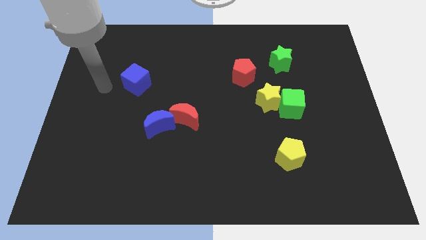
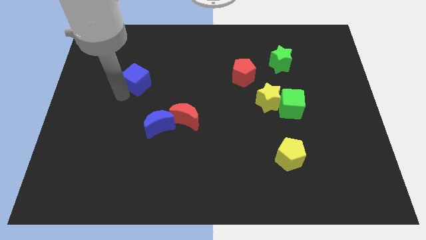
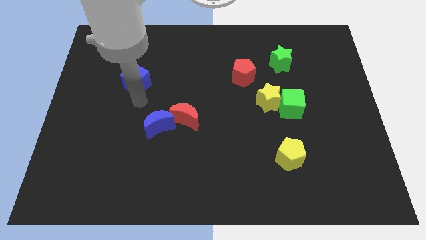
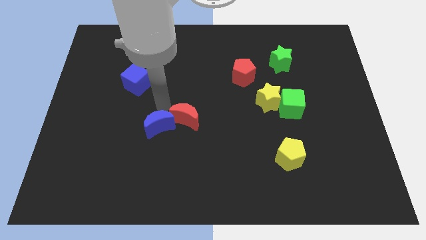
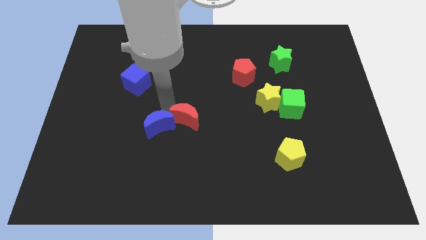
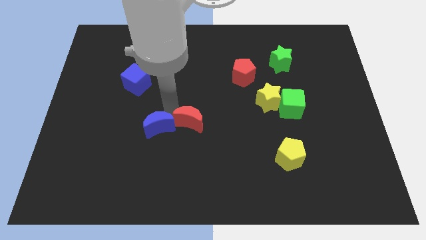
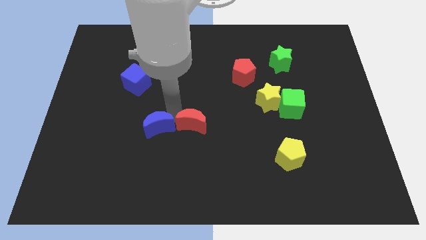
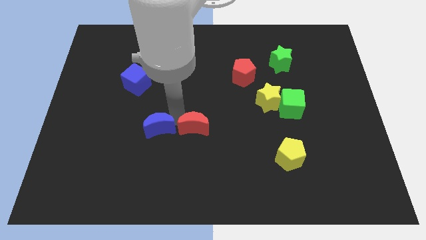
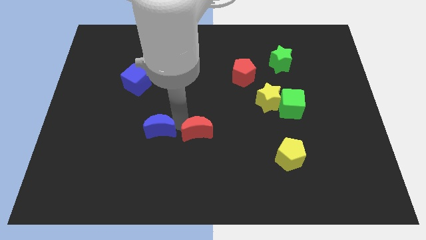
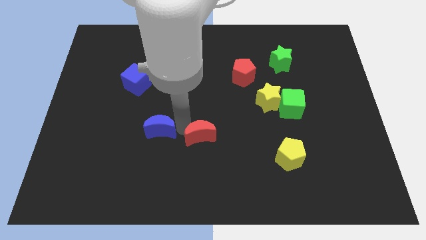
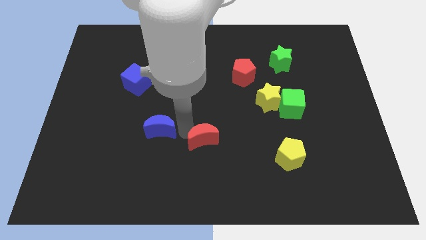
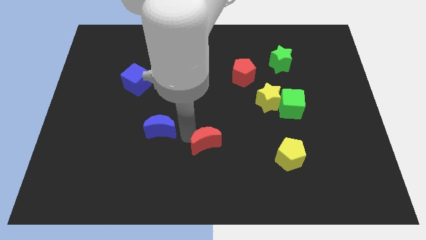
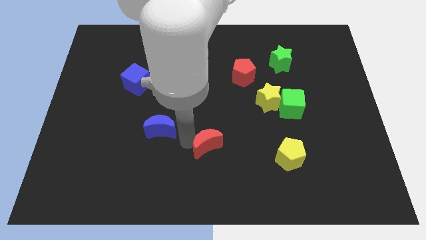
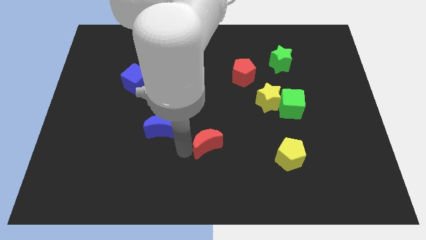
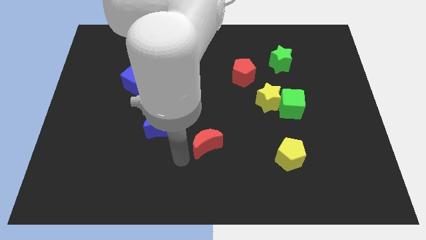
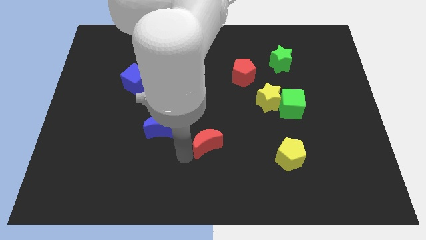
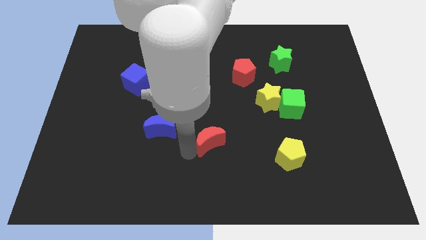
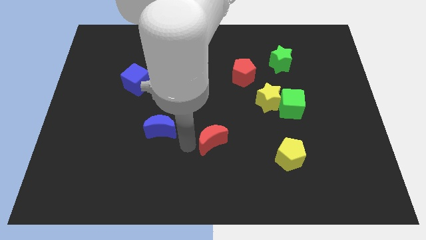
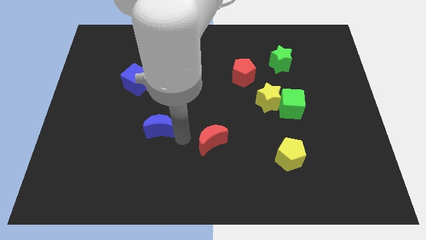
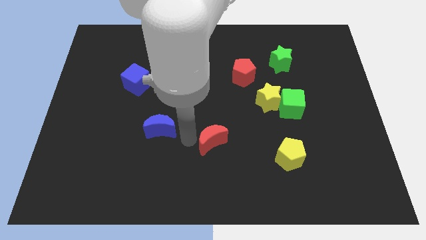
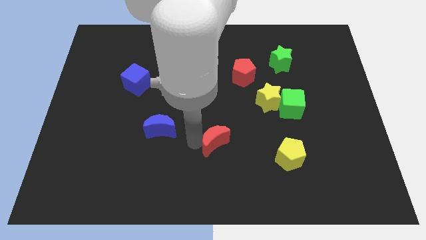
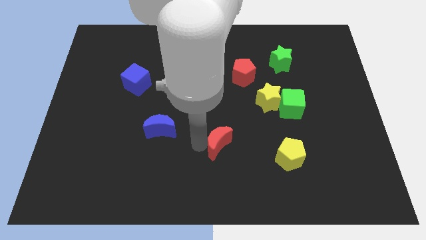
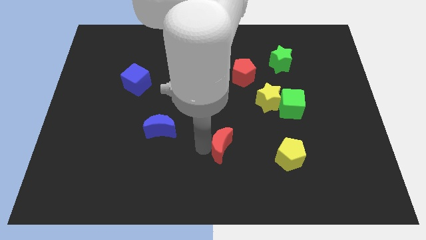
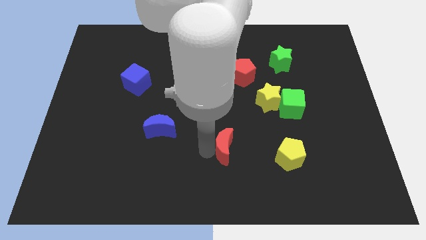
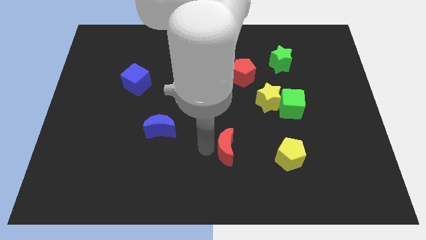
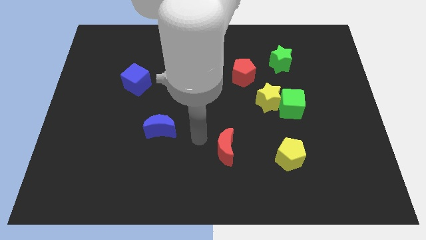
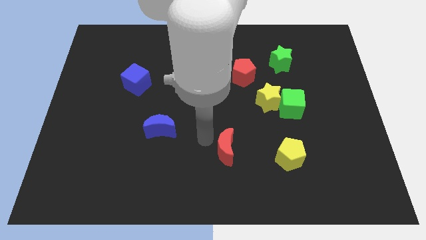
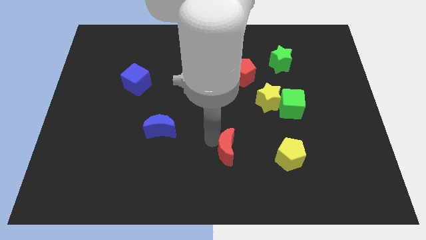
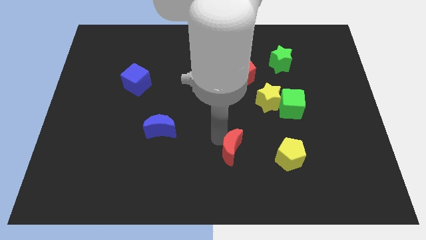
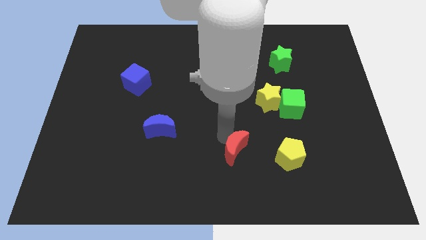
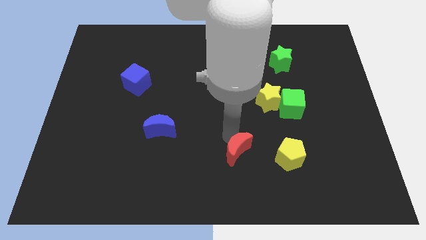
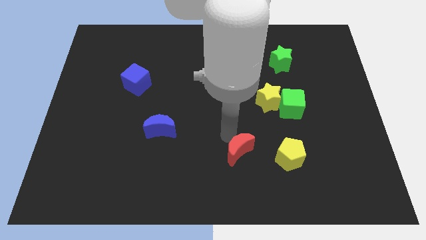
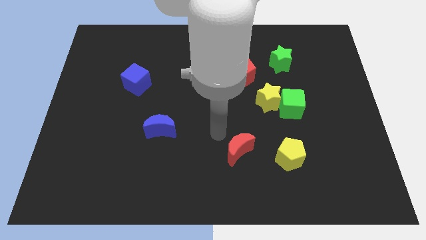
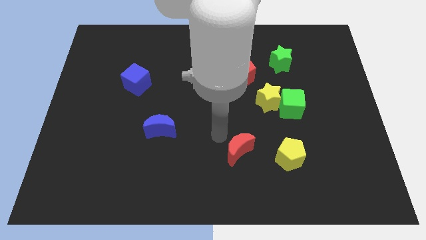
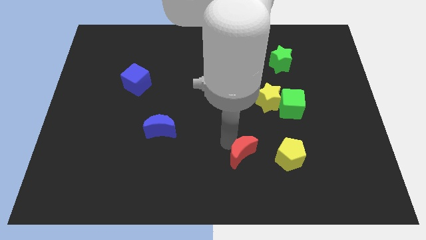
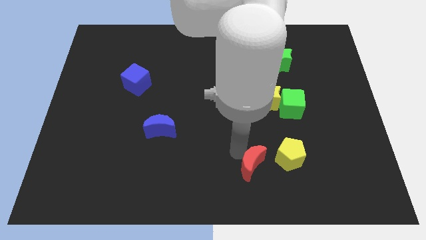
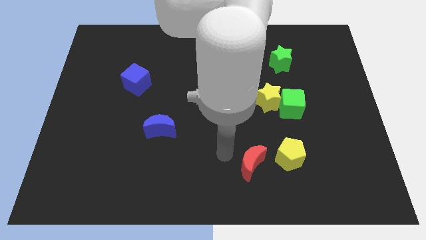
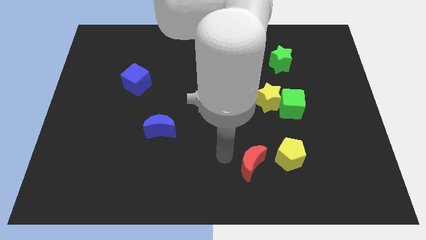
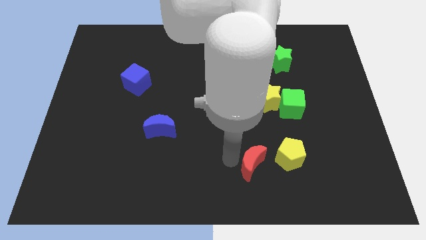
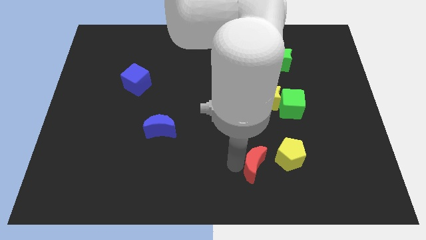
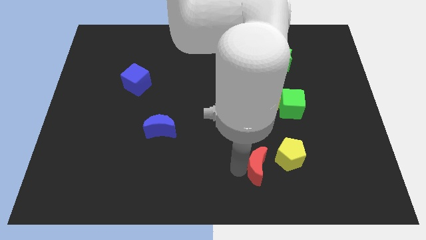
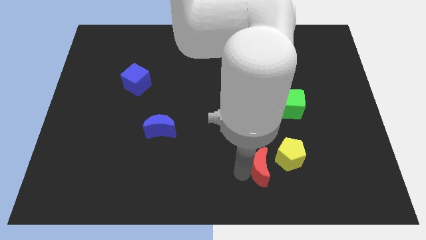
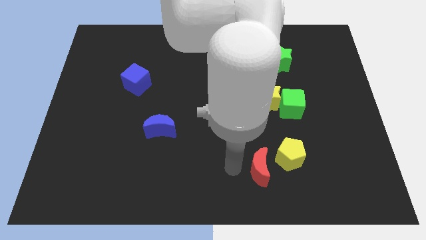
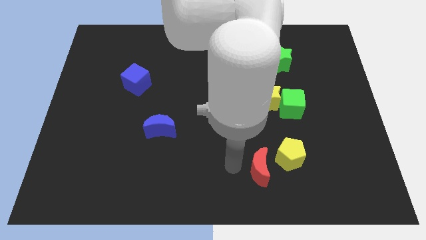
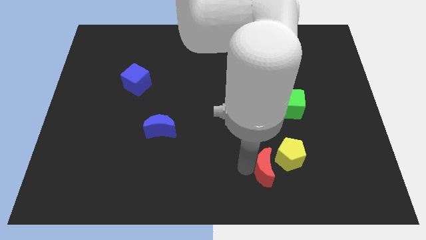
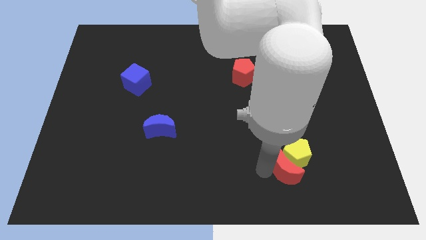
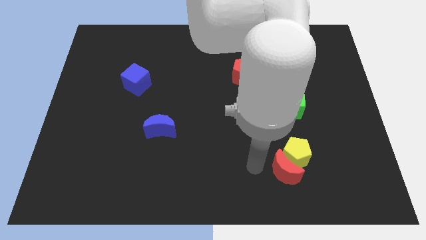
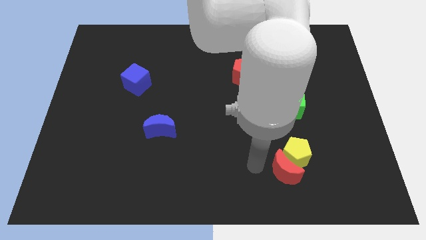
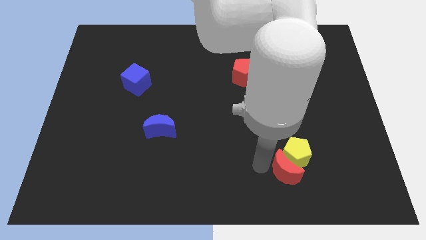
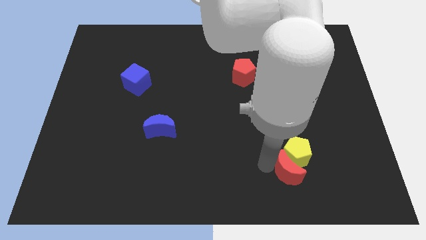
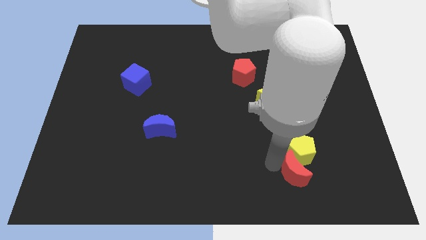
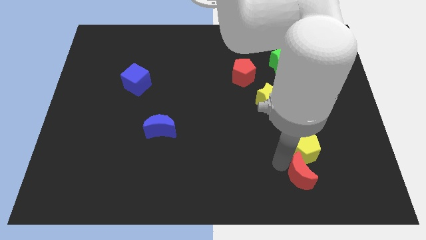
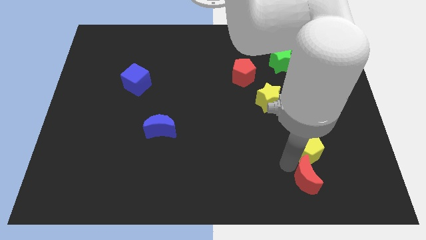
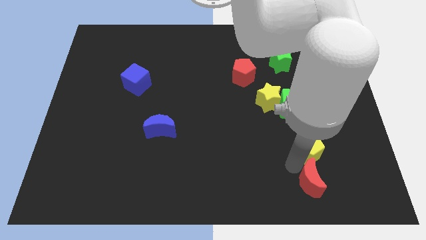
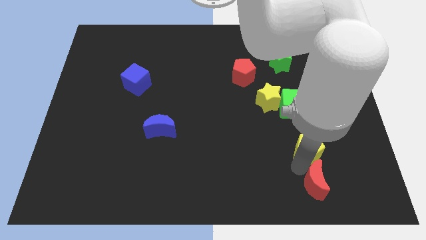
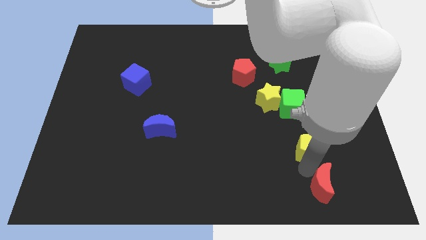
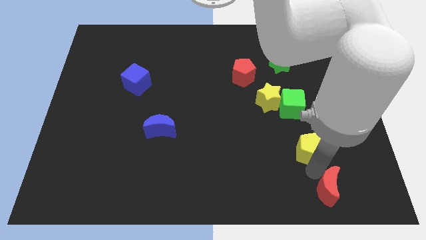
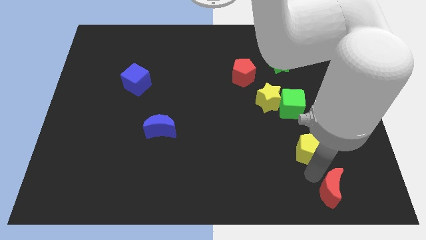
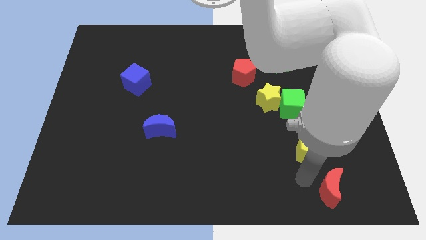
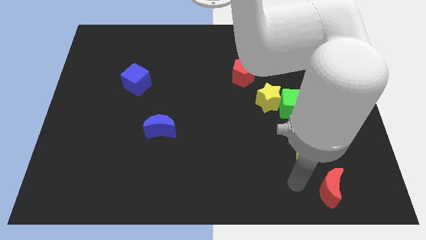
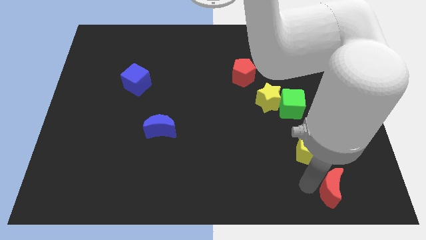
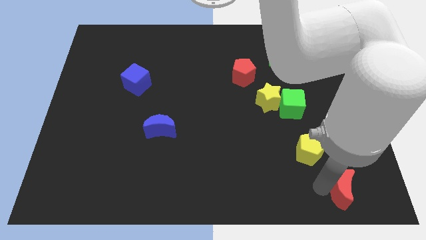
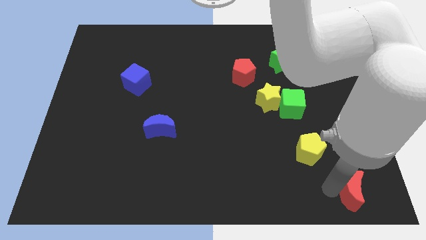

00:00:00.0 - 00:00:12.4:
slide the red moon to the bottom right of the board

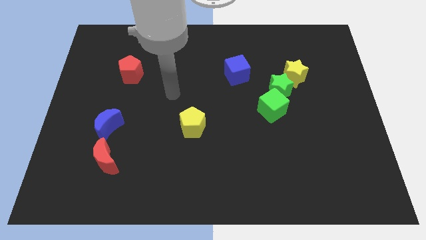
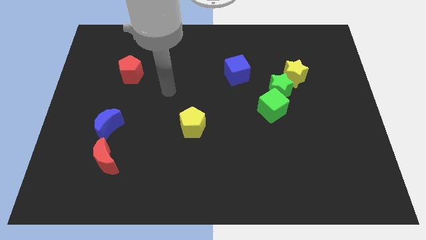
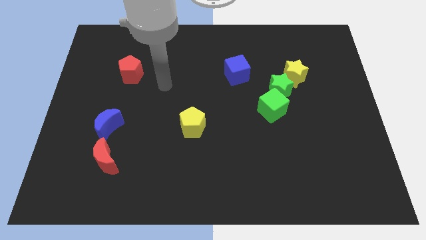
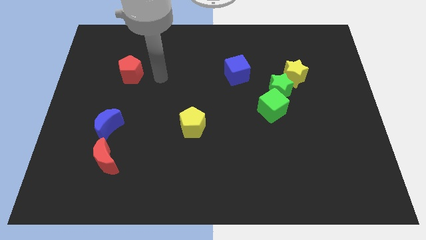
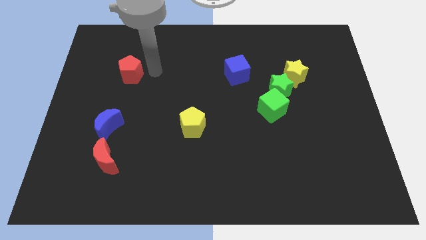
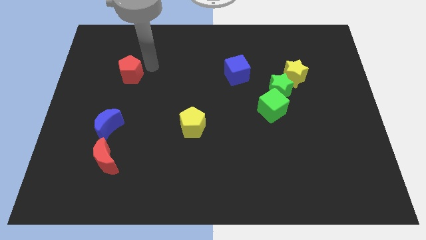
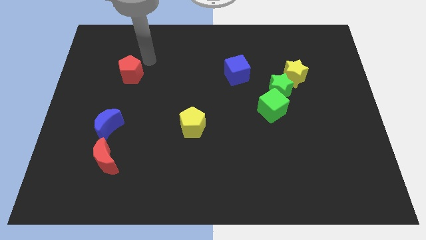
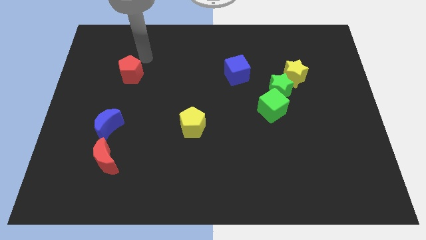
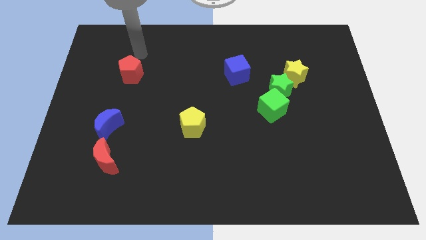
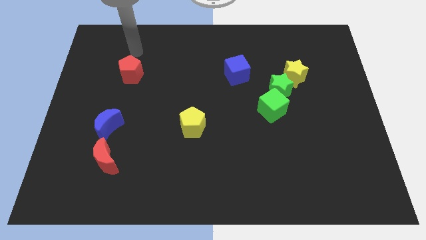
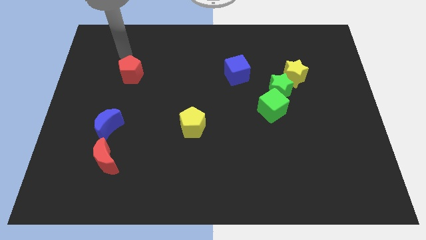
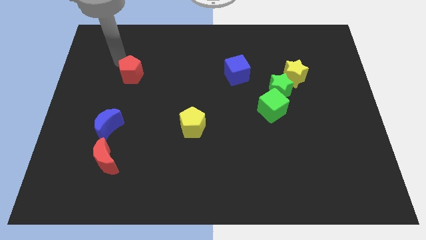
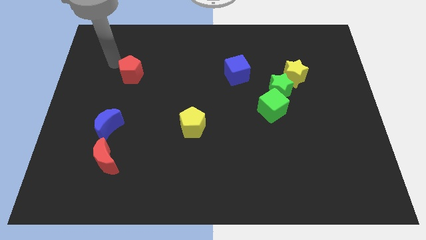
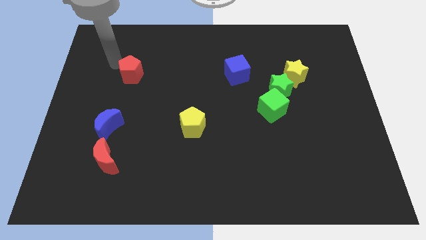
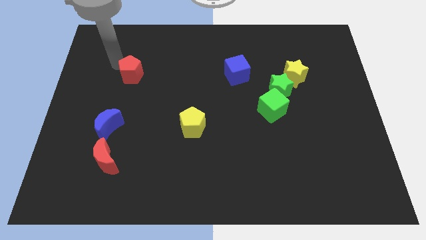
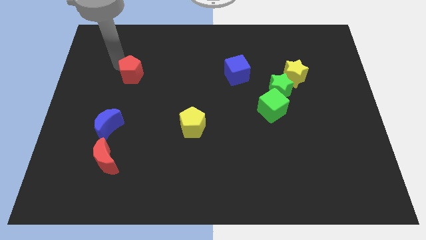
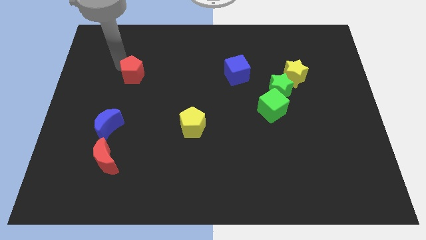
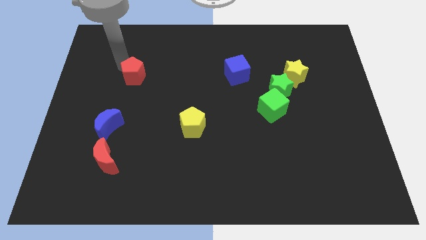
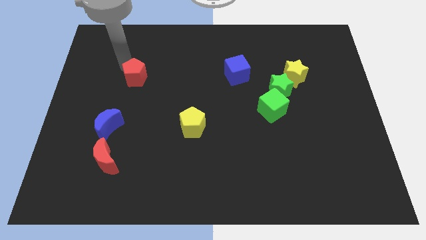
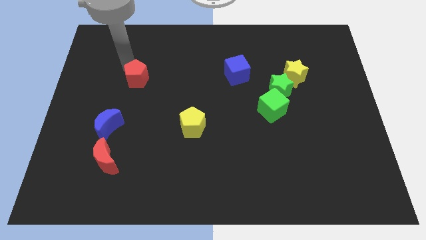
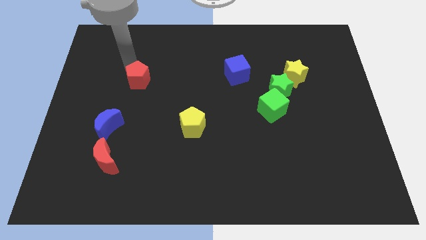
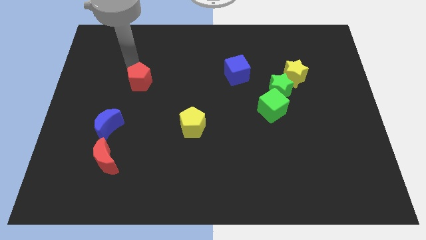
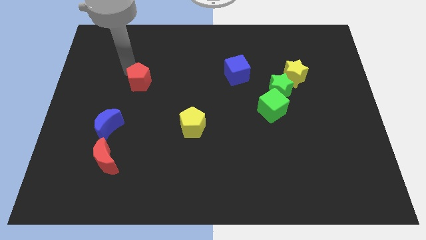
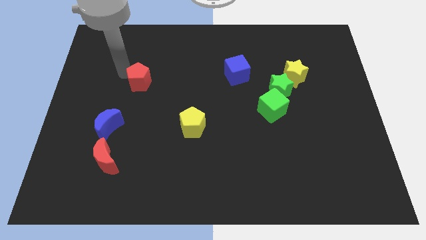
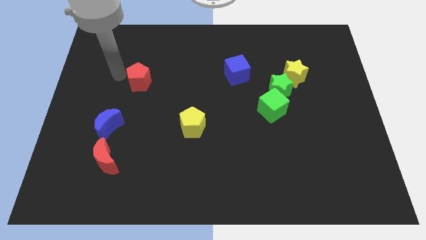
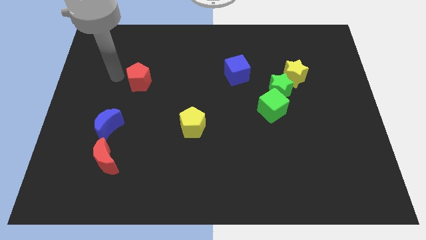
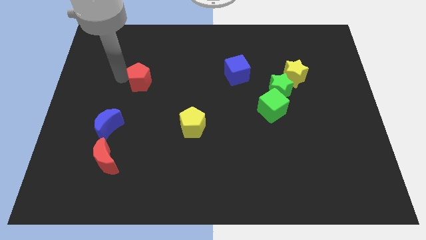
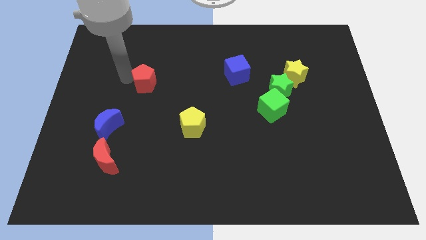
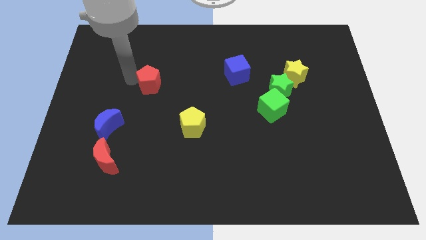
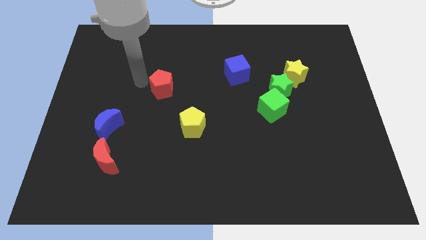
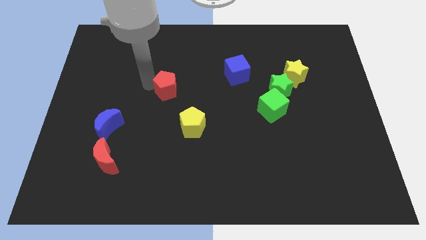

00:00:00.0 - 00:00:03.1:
push the red pentagon to the center of the board
